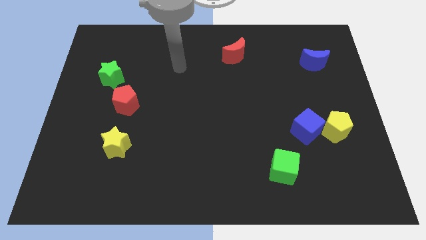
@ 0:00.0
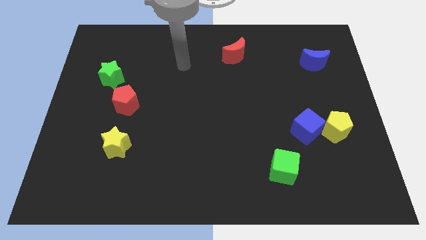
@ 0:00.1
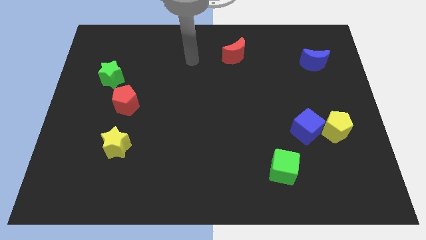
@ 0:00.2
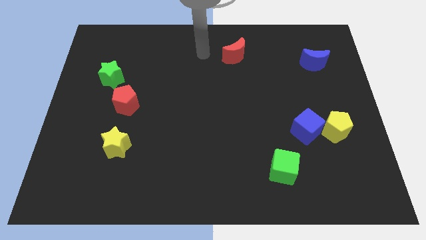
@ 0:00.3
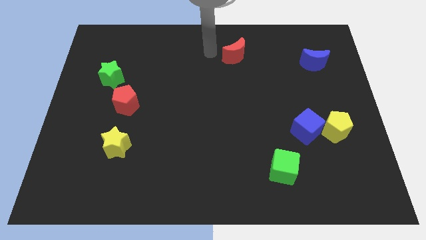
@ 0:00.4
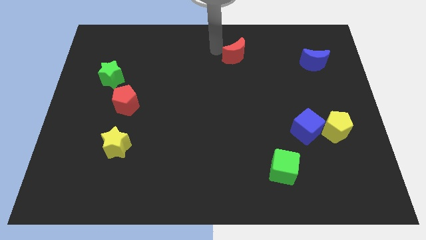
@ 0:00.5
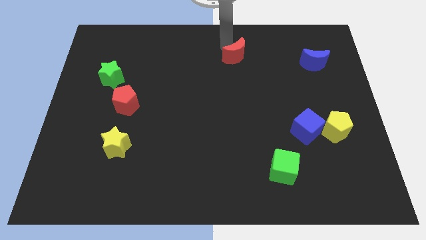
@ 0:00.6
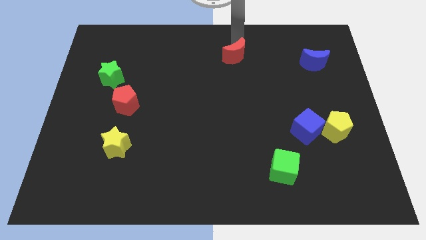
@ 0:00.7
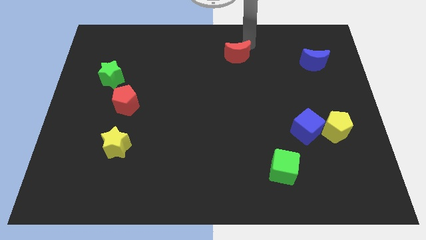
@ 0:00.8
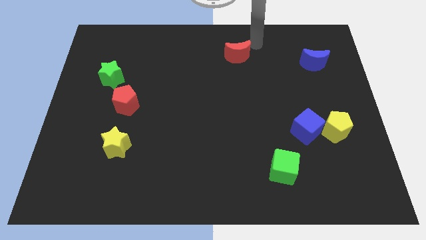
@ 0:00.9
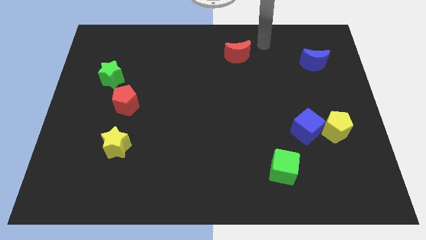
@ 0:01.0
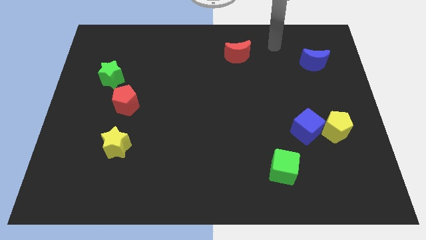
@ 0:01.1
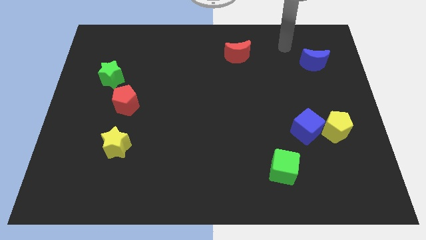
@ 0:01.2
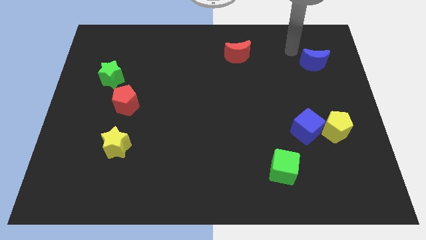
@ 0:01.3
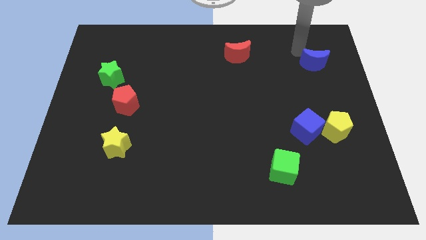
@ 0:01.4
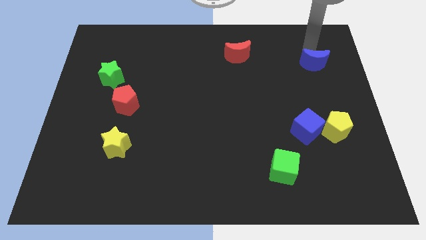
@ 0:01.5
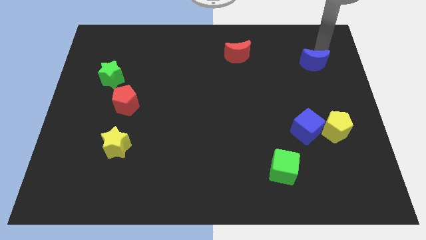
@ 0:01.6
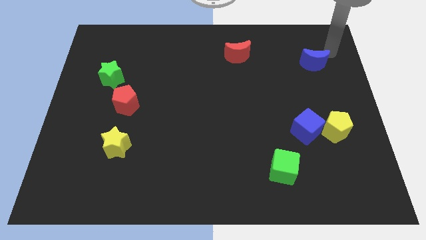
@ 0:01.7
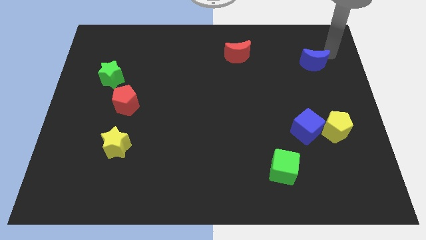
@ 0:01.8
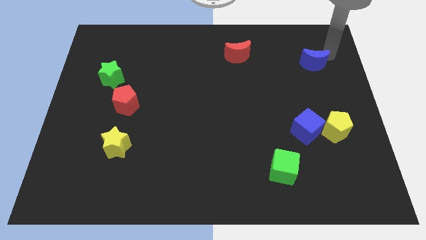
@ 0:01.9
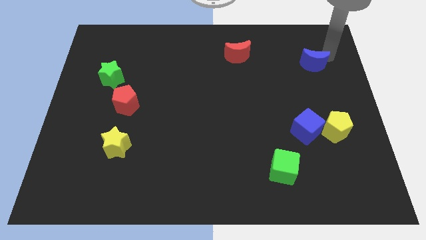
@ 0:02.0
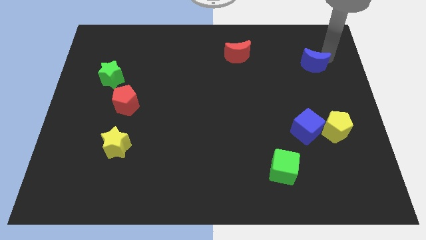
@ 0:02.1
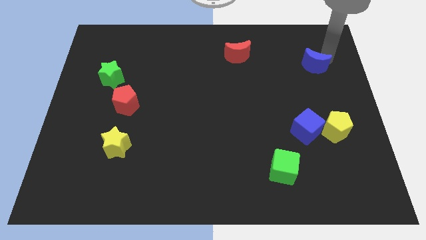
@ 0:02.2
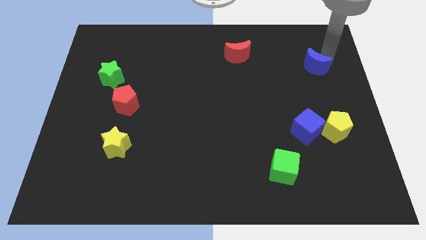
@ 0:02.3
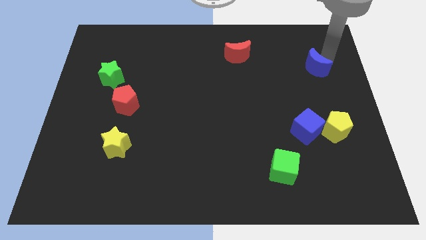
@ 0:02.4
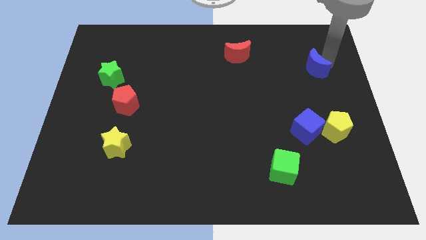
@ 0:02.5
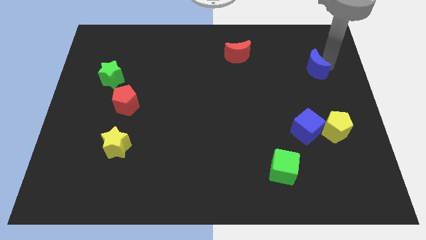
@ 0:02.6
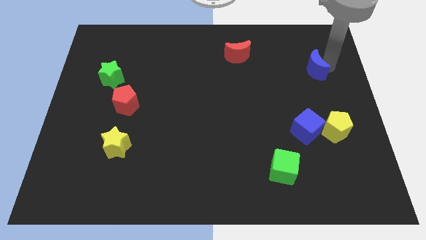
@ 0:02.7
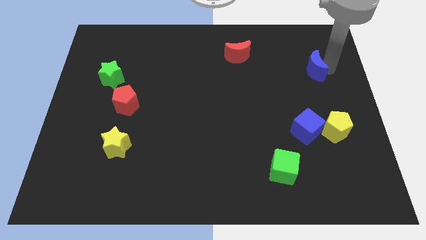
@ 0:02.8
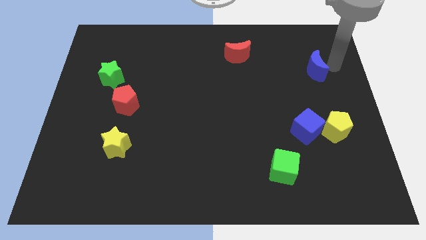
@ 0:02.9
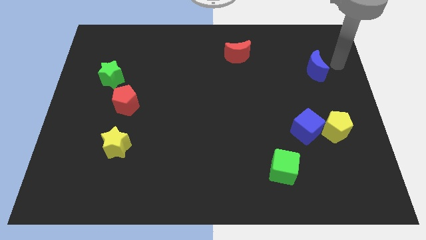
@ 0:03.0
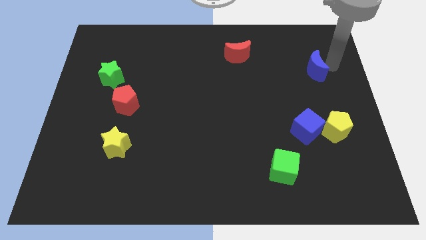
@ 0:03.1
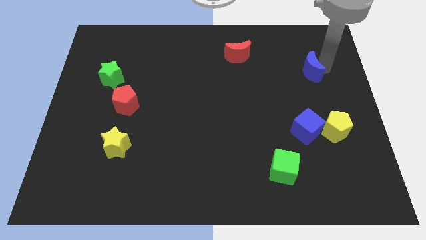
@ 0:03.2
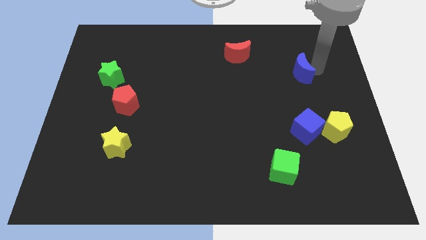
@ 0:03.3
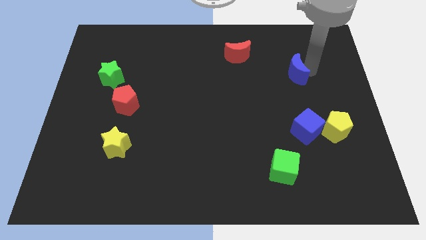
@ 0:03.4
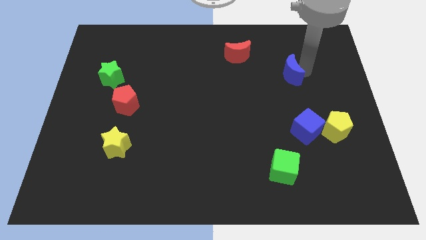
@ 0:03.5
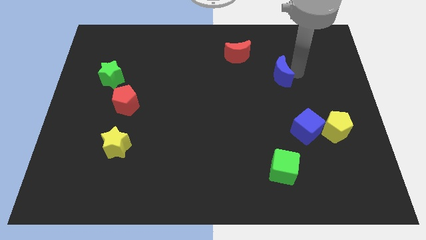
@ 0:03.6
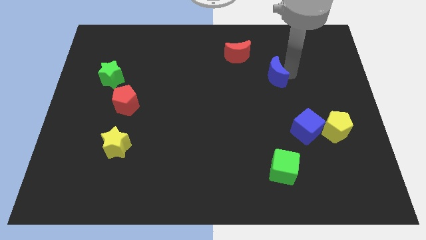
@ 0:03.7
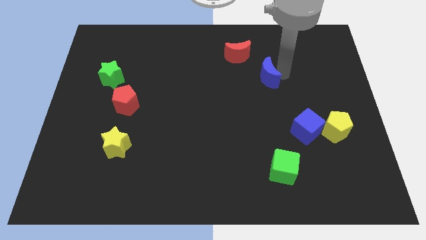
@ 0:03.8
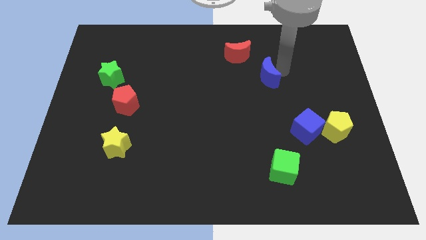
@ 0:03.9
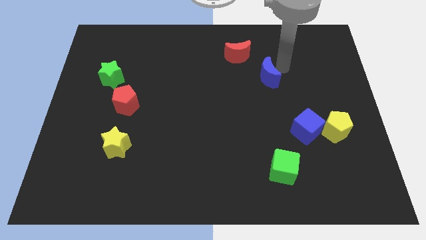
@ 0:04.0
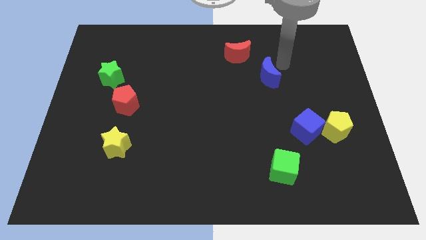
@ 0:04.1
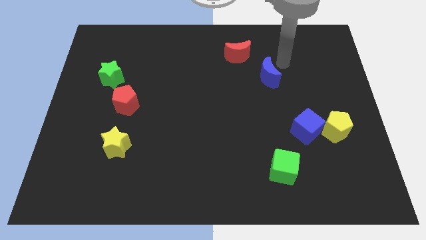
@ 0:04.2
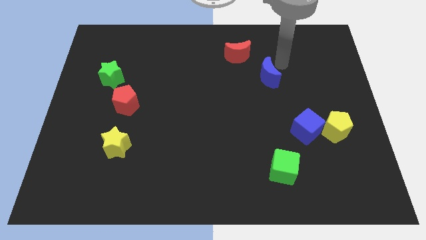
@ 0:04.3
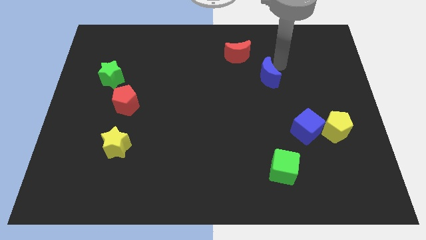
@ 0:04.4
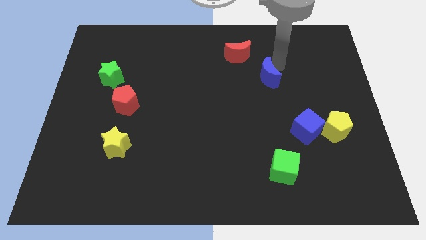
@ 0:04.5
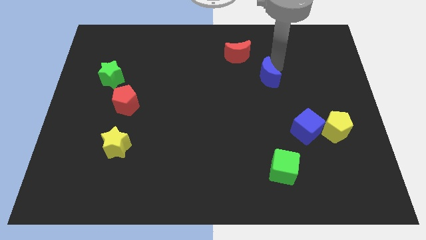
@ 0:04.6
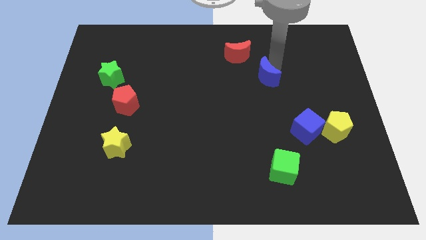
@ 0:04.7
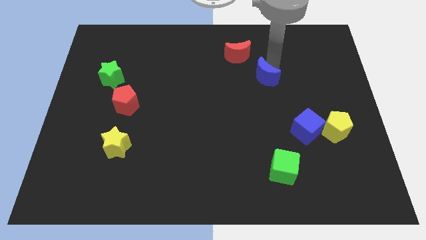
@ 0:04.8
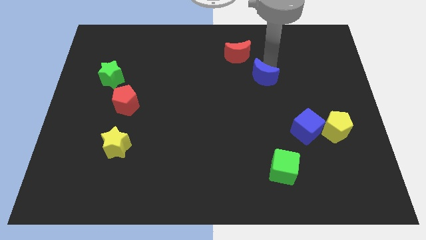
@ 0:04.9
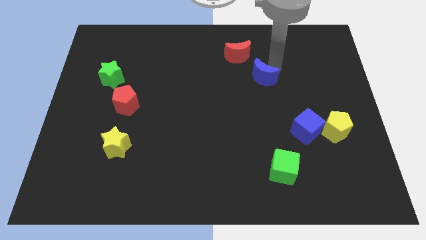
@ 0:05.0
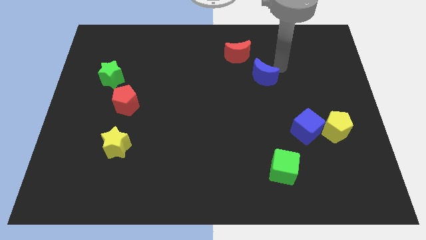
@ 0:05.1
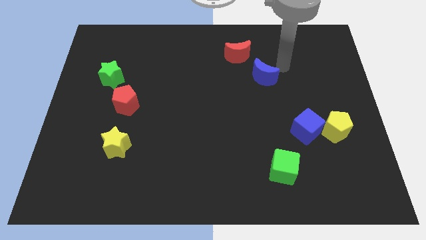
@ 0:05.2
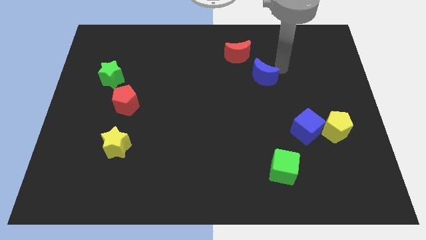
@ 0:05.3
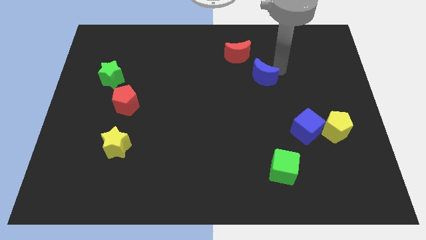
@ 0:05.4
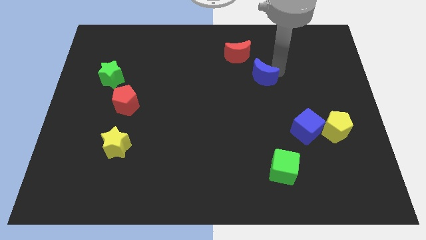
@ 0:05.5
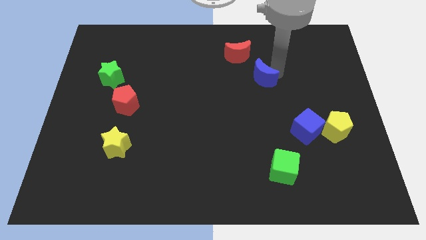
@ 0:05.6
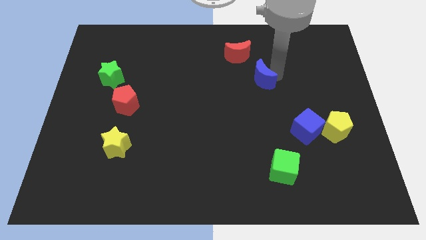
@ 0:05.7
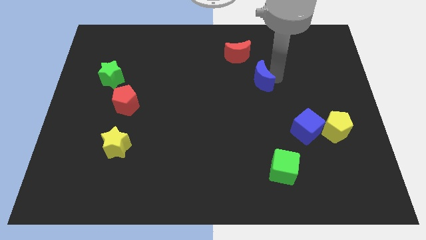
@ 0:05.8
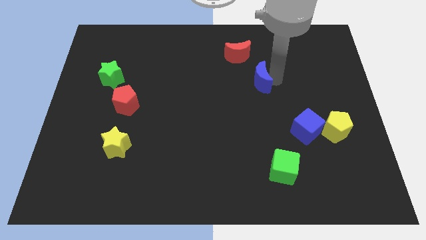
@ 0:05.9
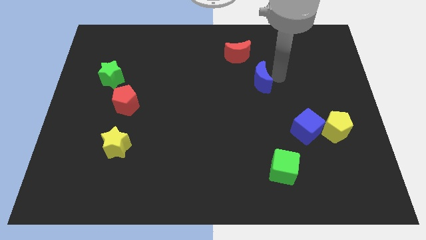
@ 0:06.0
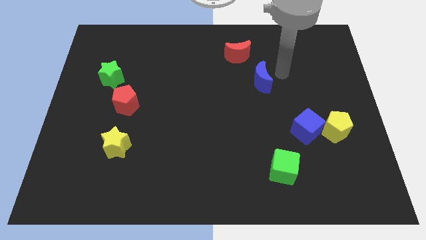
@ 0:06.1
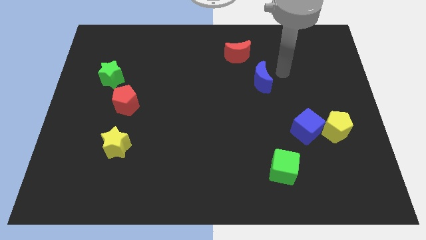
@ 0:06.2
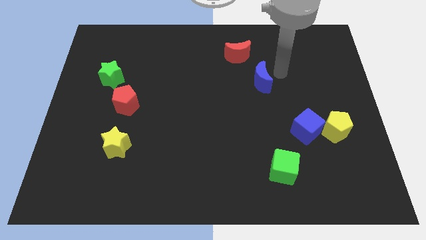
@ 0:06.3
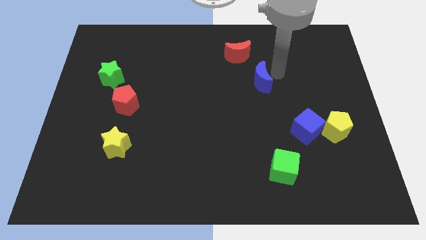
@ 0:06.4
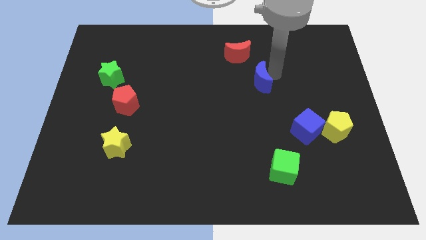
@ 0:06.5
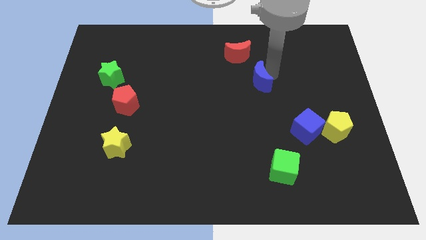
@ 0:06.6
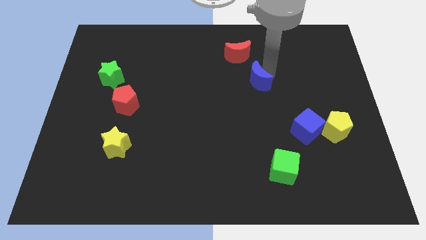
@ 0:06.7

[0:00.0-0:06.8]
slide the blue moon to the middle of the board

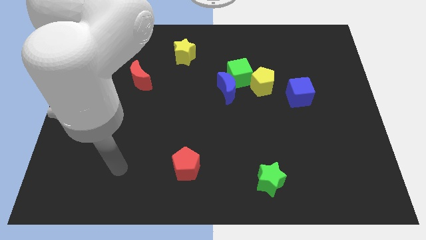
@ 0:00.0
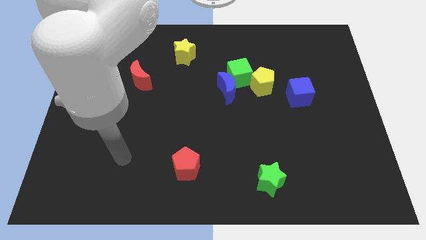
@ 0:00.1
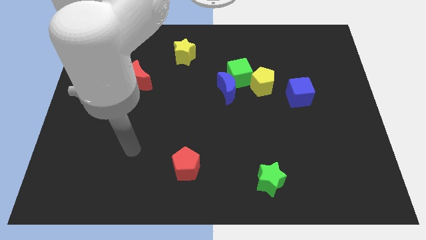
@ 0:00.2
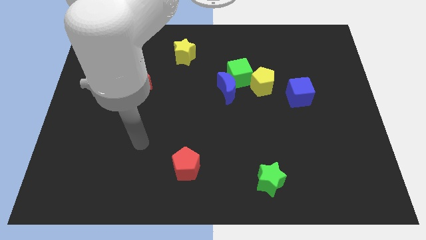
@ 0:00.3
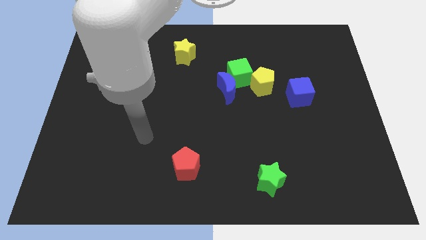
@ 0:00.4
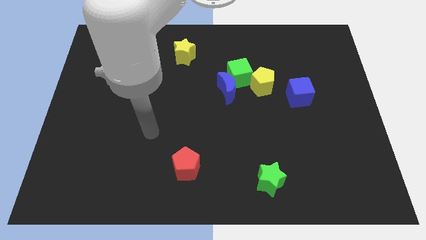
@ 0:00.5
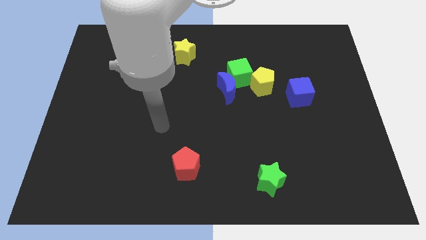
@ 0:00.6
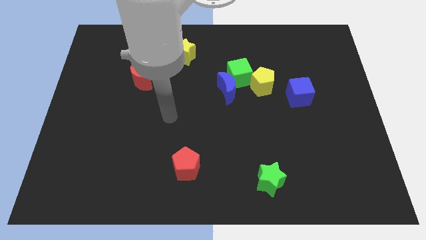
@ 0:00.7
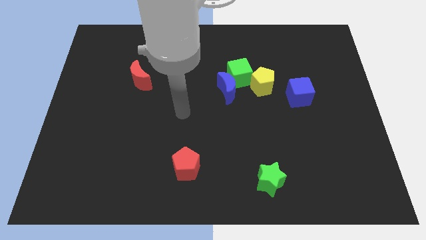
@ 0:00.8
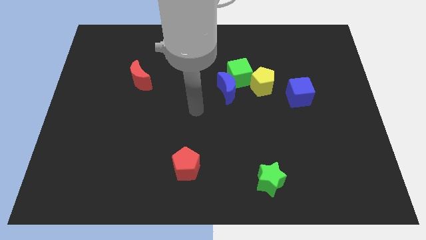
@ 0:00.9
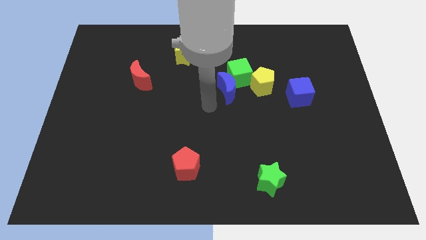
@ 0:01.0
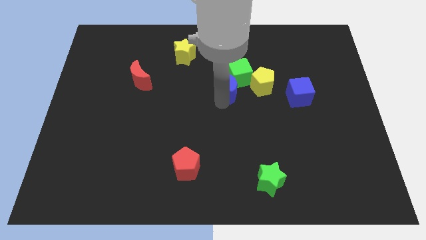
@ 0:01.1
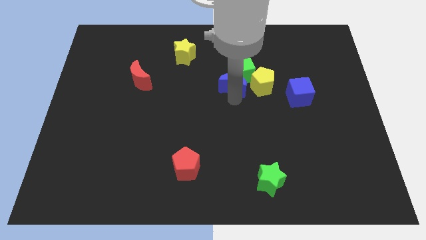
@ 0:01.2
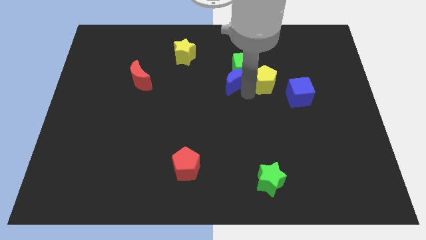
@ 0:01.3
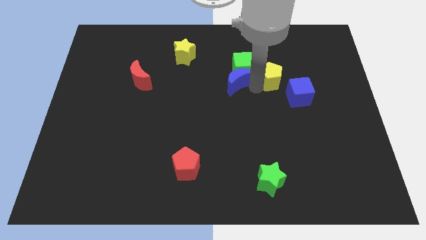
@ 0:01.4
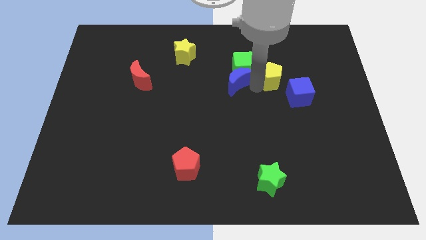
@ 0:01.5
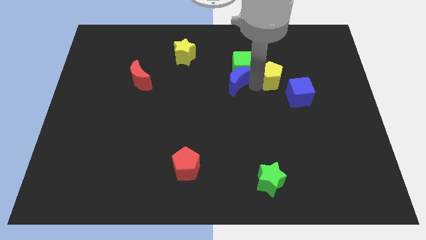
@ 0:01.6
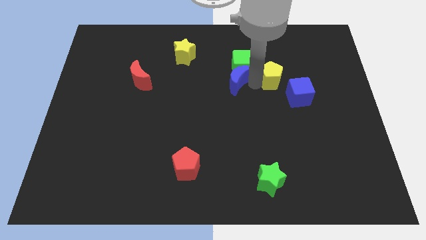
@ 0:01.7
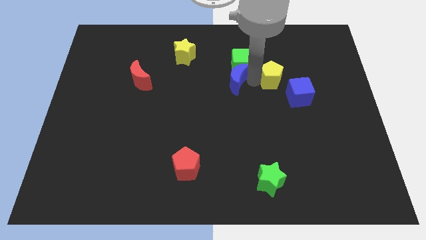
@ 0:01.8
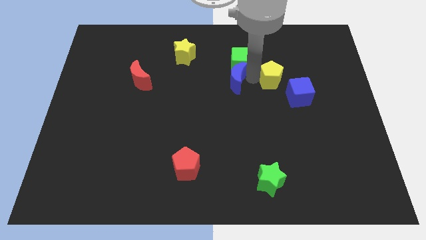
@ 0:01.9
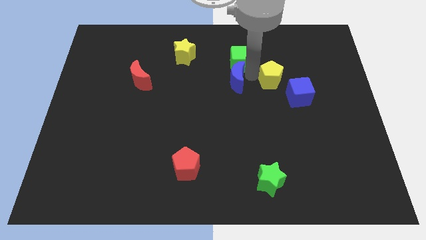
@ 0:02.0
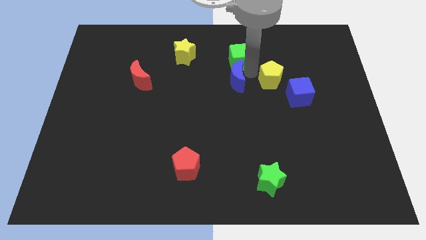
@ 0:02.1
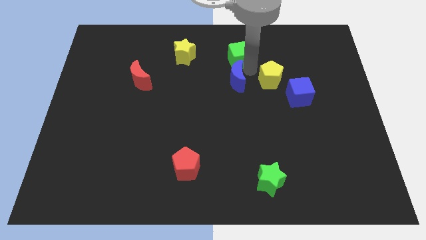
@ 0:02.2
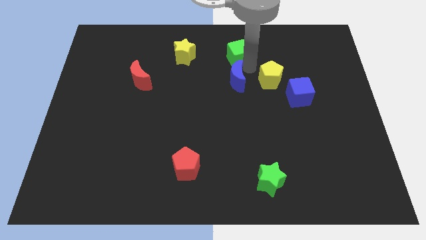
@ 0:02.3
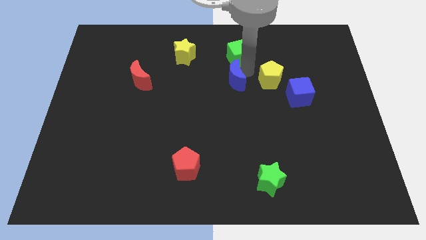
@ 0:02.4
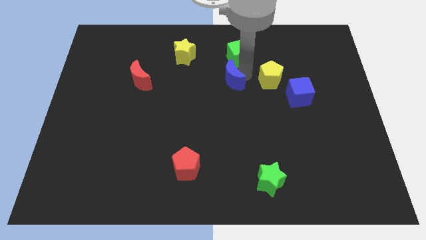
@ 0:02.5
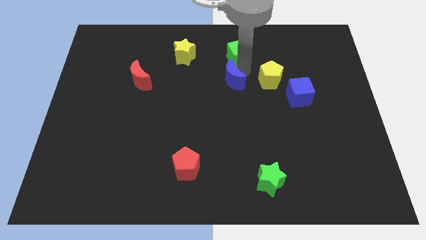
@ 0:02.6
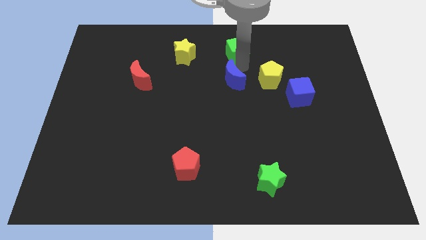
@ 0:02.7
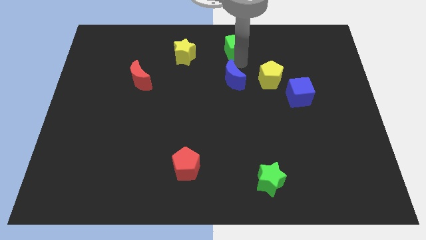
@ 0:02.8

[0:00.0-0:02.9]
push the green cube to the top side
